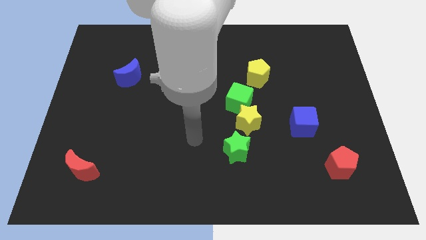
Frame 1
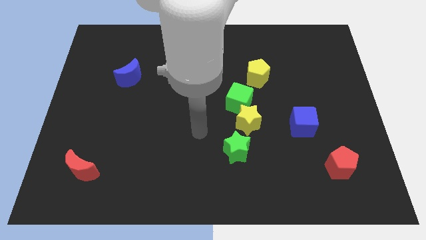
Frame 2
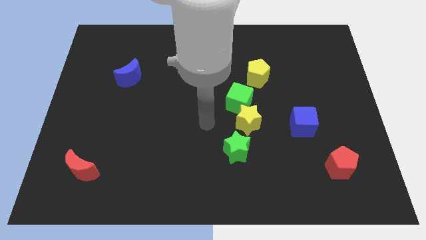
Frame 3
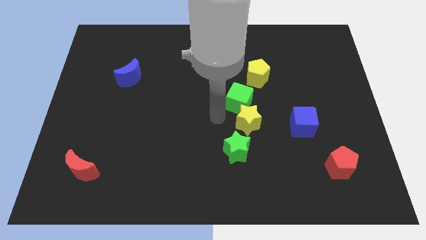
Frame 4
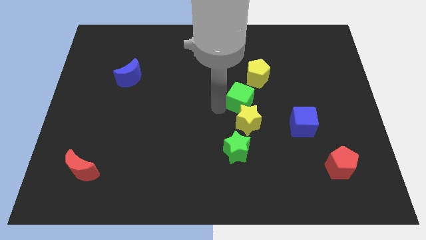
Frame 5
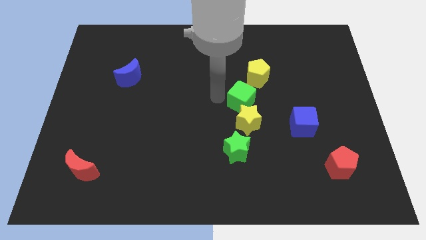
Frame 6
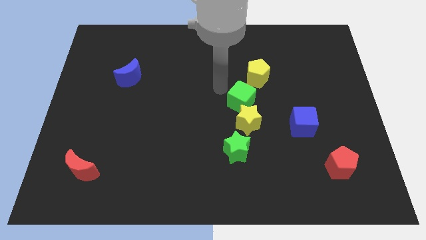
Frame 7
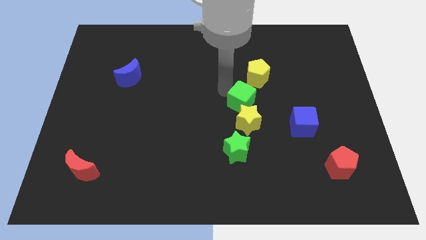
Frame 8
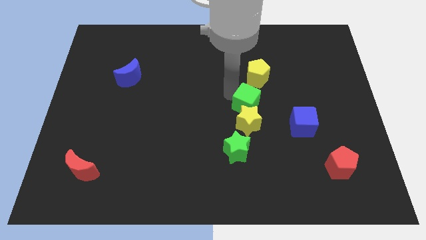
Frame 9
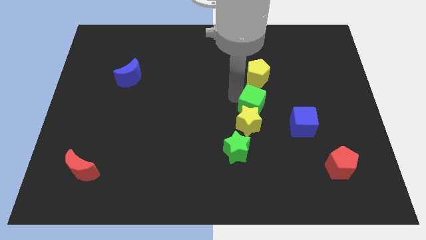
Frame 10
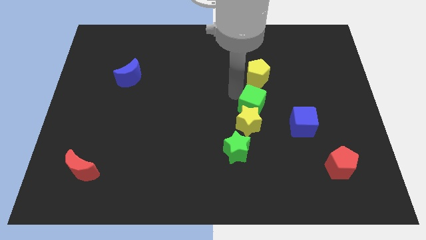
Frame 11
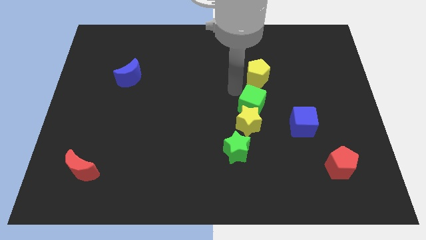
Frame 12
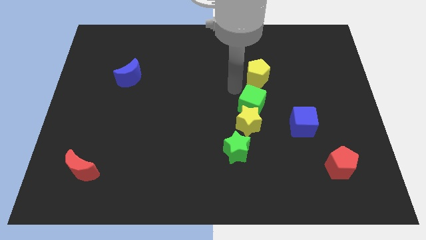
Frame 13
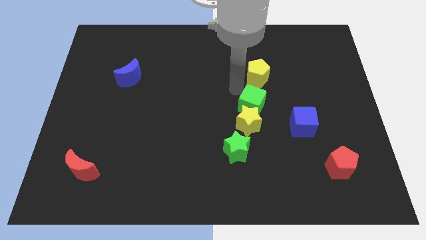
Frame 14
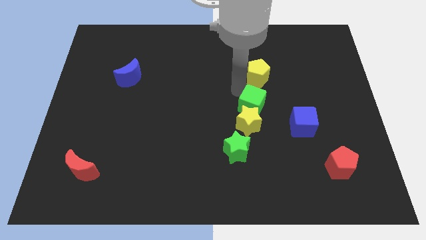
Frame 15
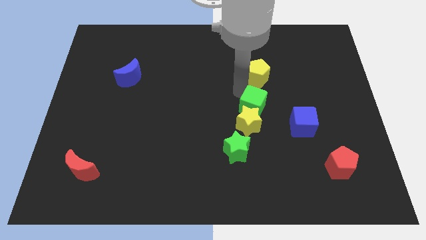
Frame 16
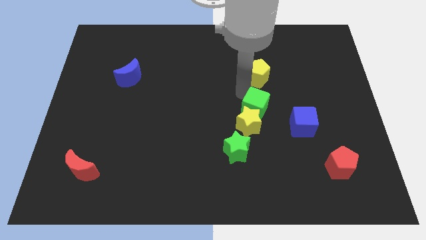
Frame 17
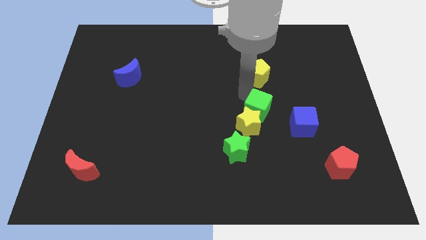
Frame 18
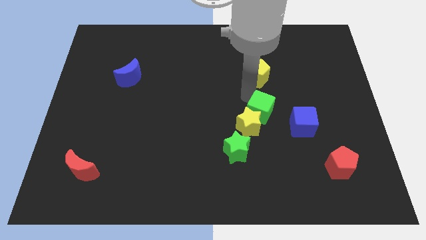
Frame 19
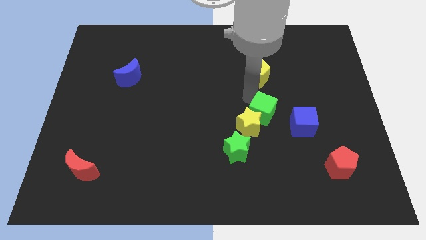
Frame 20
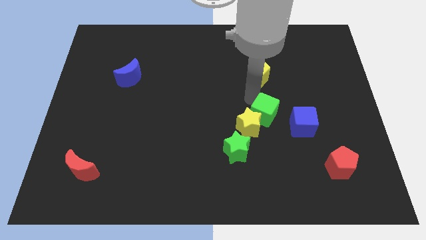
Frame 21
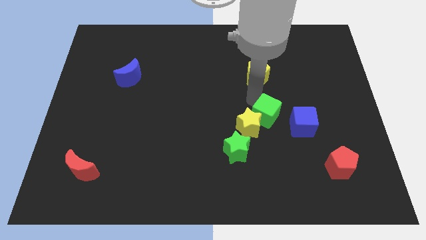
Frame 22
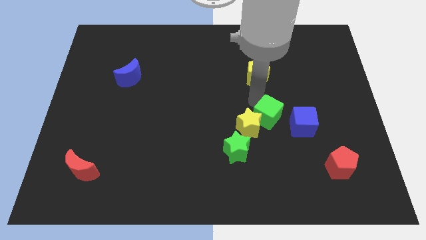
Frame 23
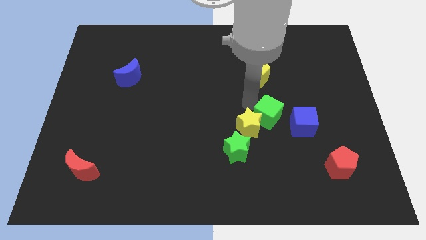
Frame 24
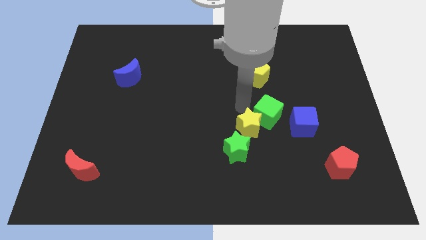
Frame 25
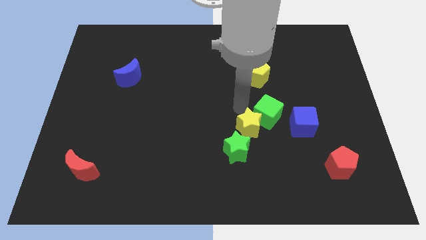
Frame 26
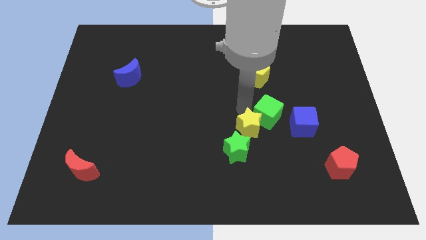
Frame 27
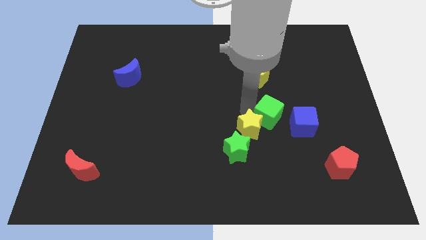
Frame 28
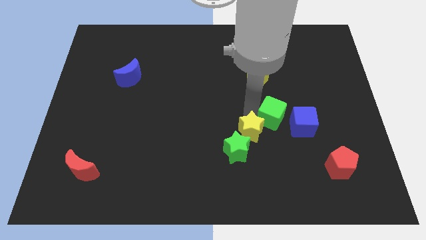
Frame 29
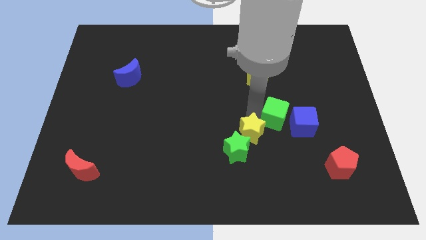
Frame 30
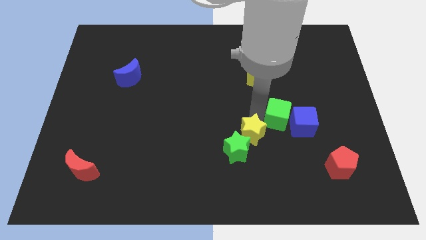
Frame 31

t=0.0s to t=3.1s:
slide the green cube close to the blue cube

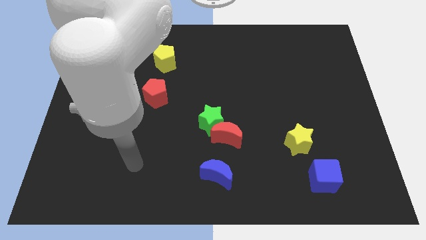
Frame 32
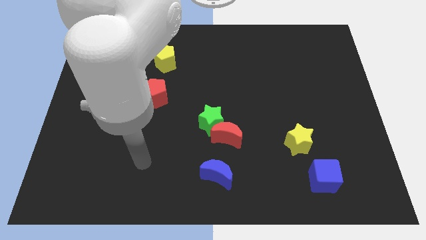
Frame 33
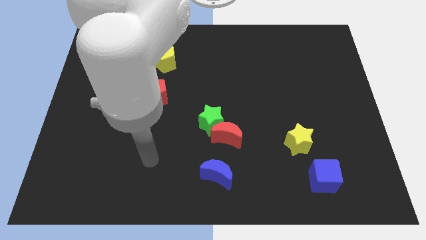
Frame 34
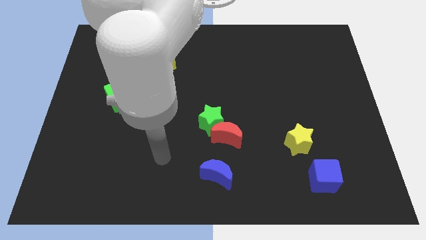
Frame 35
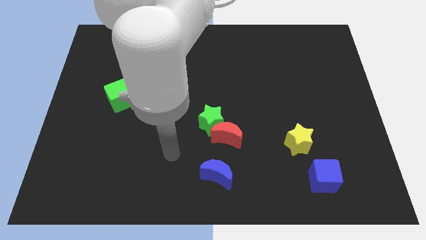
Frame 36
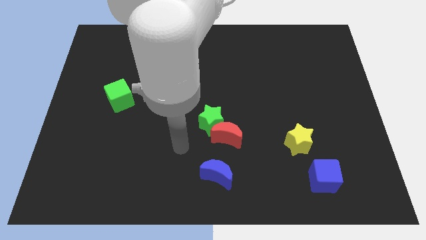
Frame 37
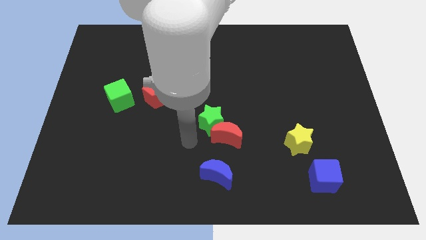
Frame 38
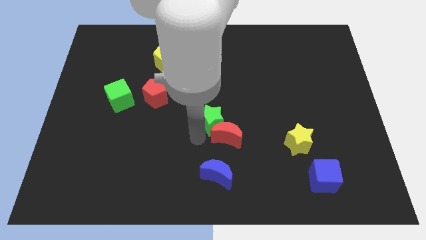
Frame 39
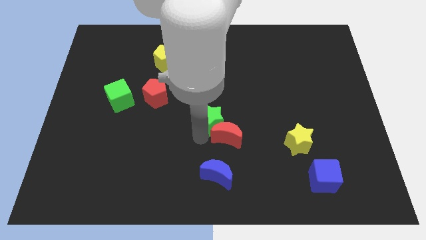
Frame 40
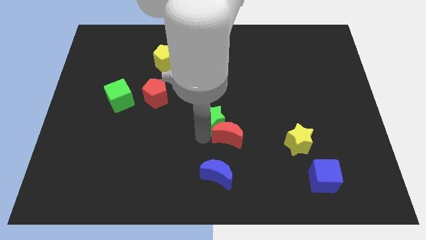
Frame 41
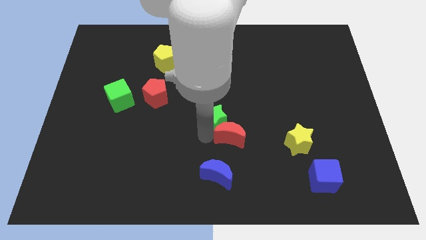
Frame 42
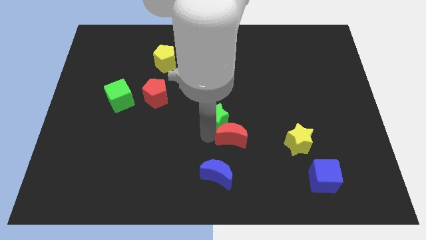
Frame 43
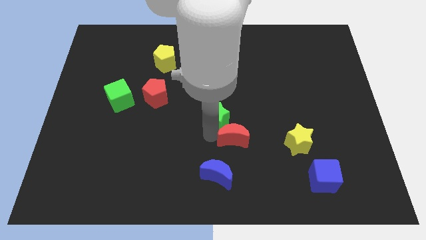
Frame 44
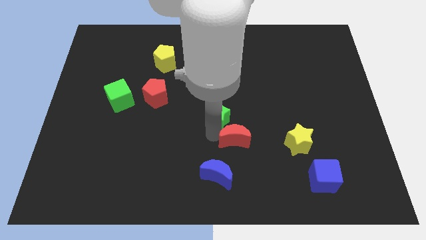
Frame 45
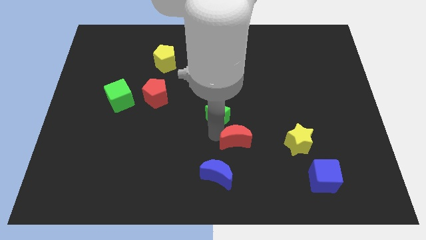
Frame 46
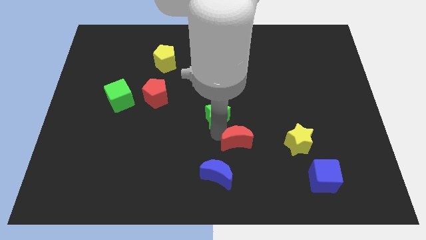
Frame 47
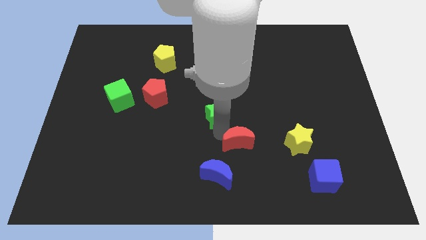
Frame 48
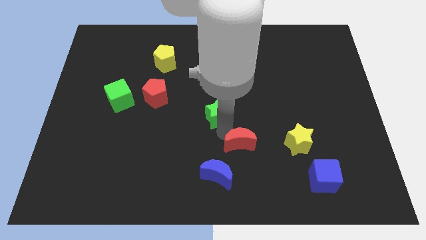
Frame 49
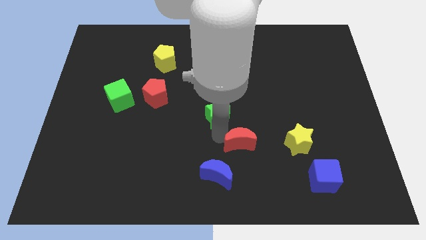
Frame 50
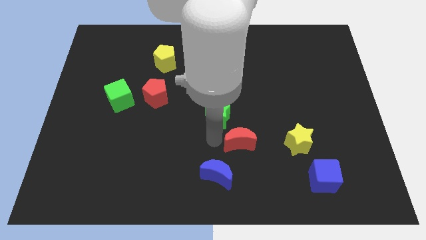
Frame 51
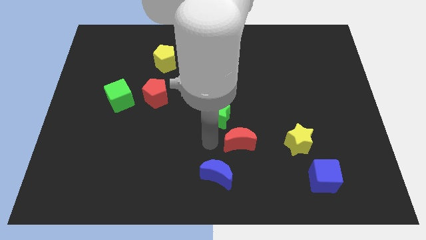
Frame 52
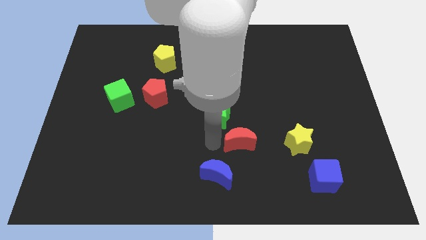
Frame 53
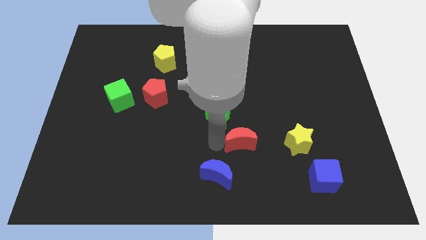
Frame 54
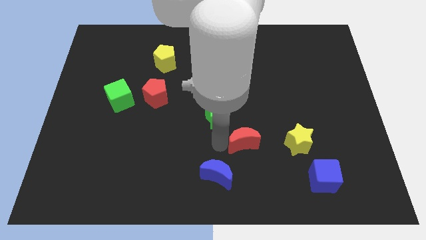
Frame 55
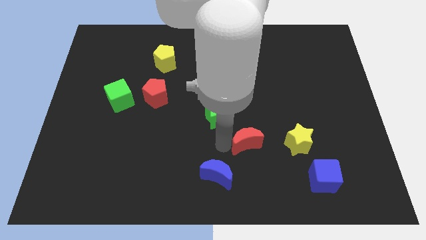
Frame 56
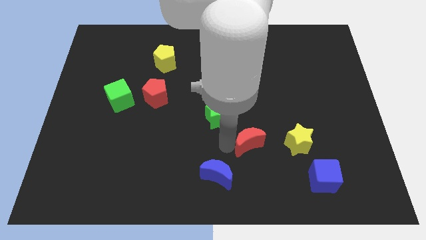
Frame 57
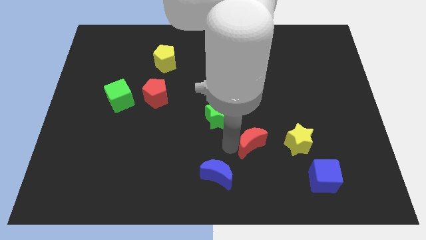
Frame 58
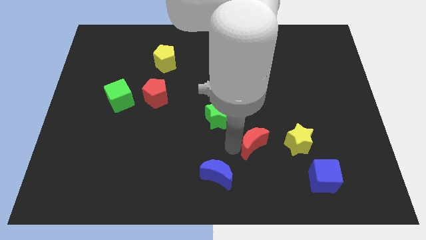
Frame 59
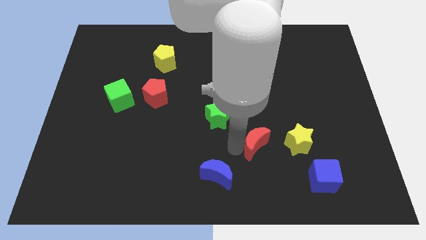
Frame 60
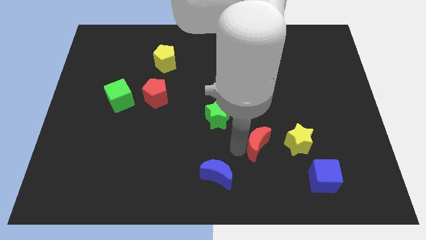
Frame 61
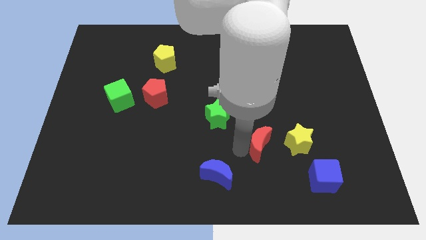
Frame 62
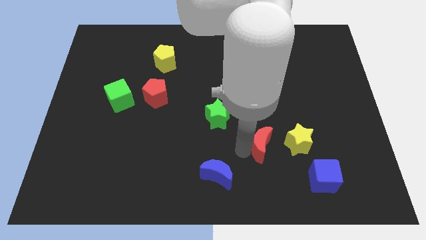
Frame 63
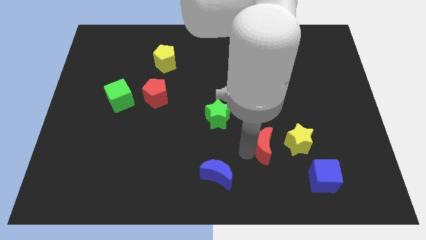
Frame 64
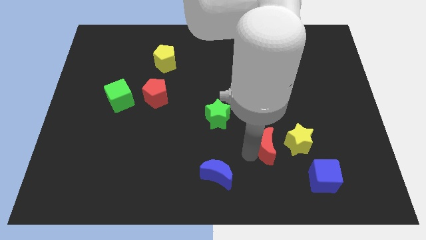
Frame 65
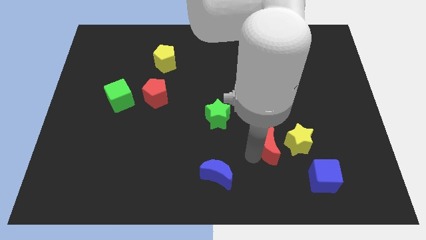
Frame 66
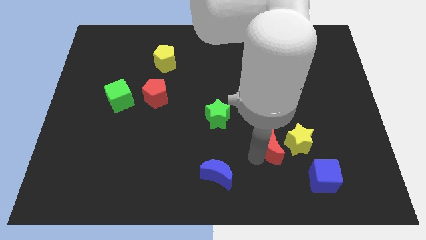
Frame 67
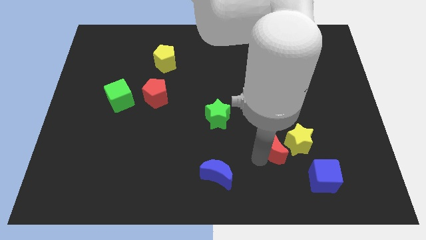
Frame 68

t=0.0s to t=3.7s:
push the red moon next to the yellow star
